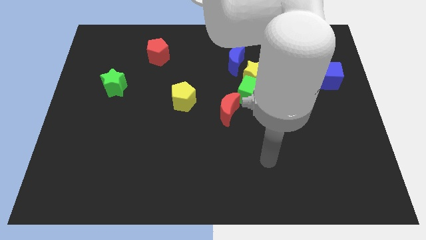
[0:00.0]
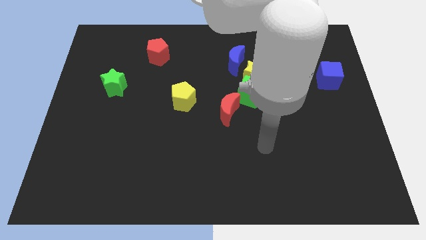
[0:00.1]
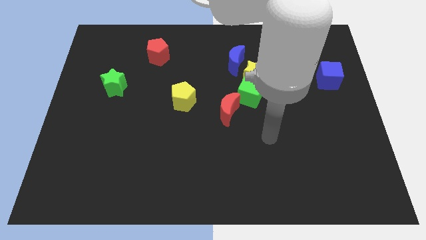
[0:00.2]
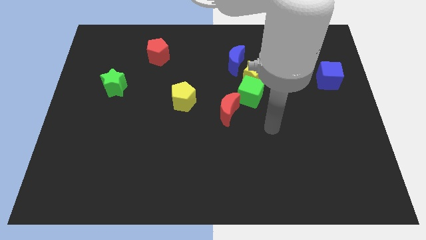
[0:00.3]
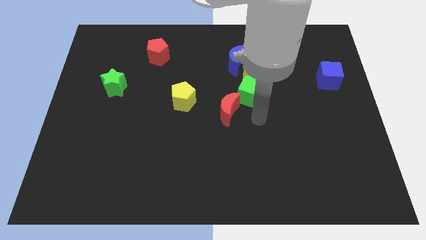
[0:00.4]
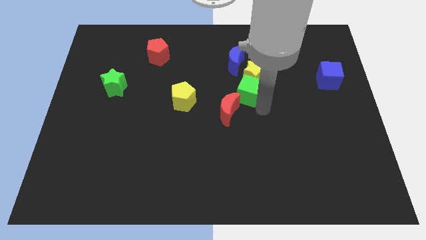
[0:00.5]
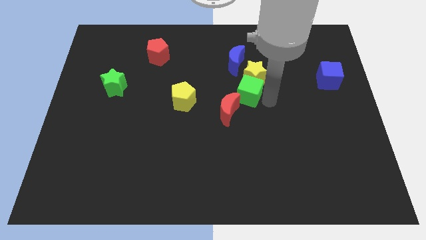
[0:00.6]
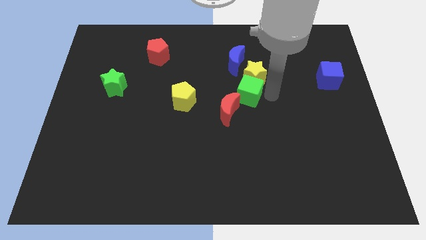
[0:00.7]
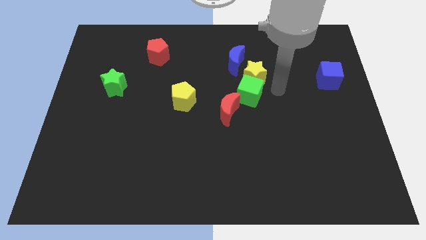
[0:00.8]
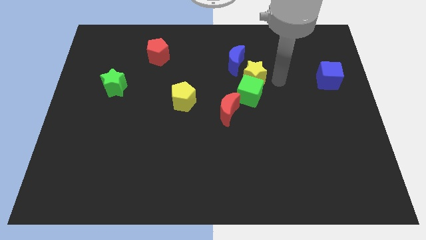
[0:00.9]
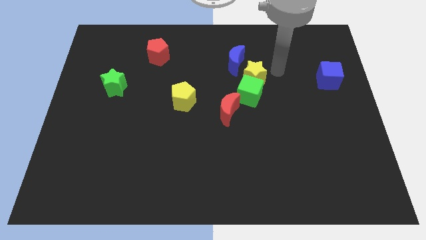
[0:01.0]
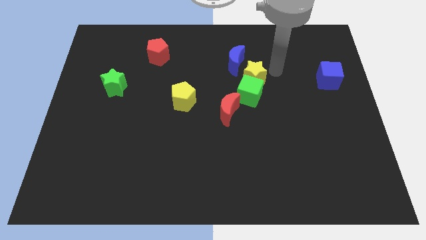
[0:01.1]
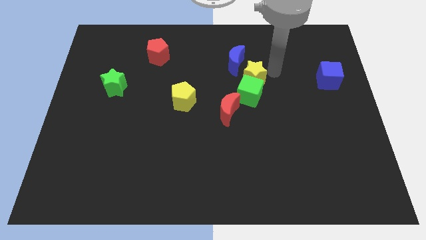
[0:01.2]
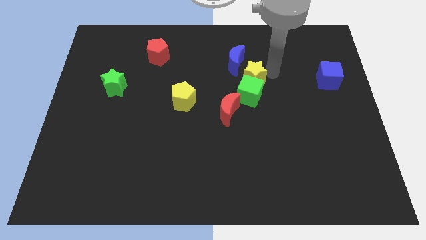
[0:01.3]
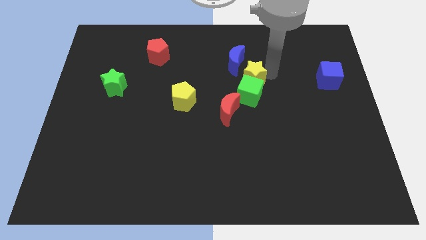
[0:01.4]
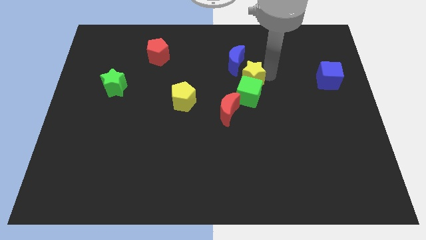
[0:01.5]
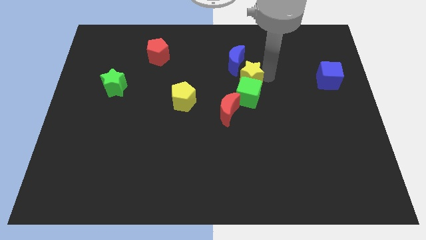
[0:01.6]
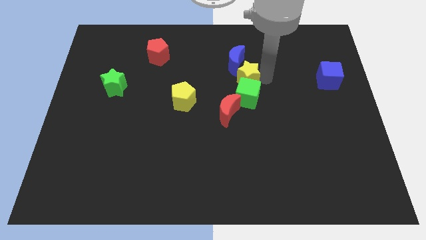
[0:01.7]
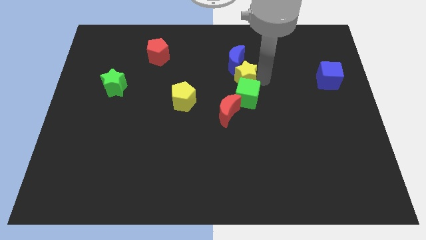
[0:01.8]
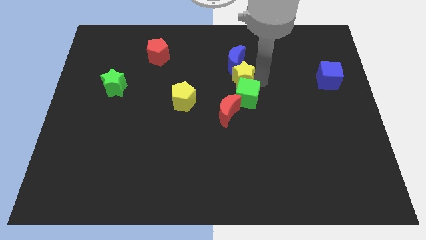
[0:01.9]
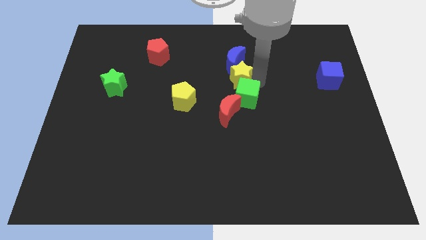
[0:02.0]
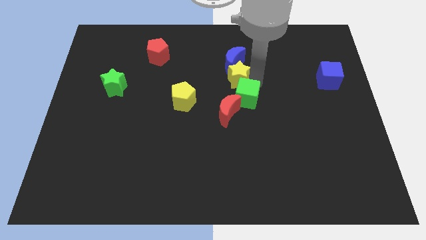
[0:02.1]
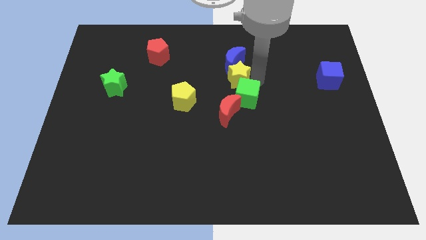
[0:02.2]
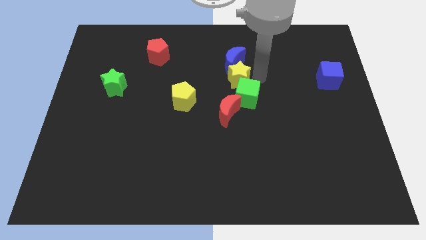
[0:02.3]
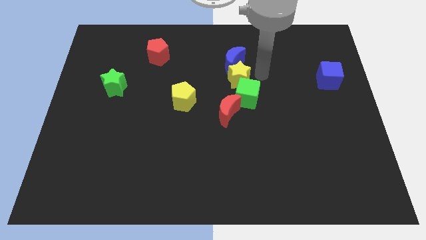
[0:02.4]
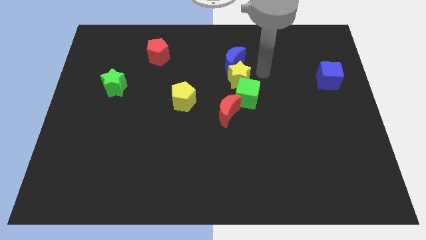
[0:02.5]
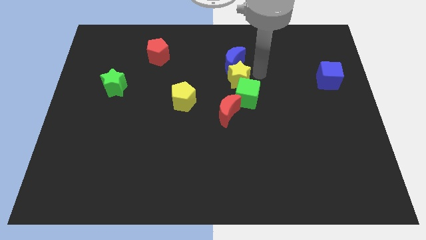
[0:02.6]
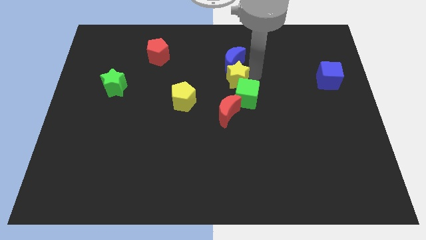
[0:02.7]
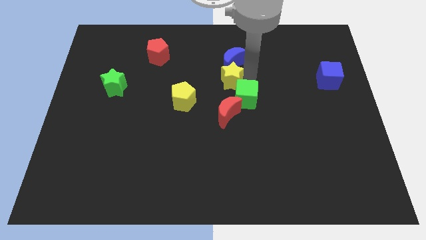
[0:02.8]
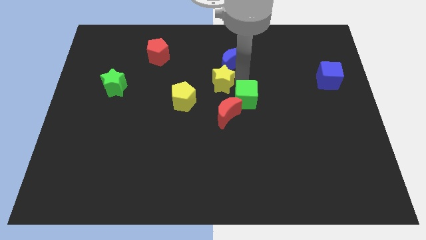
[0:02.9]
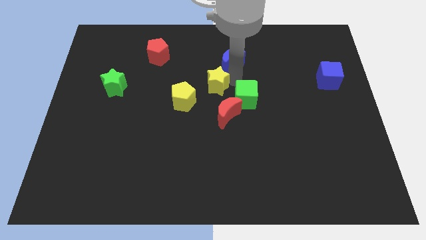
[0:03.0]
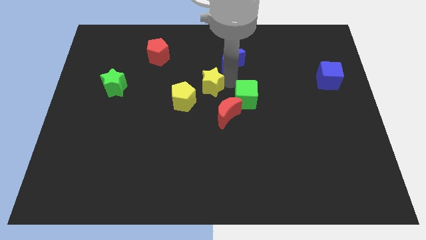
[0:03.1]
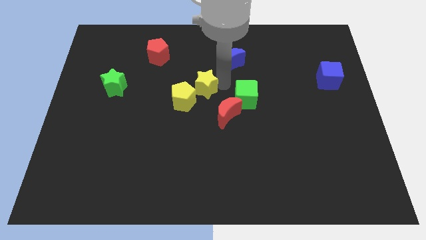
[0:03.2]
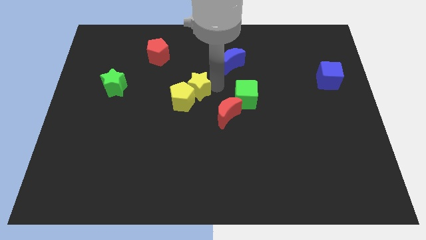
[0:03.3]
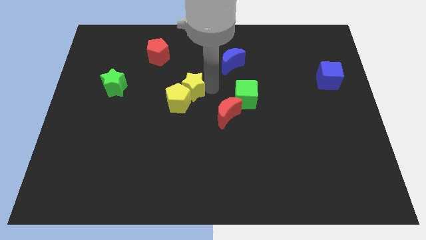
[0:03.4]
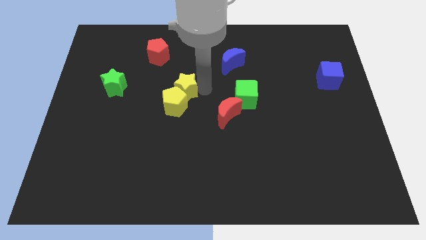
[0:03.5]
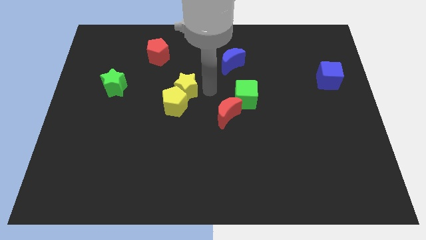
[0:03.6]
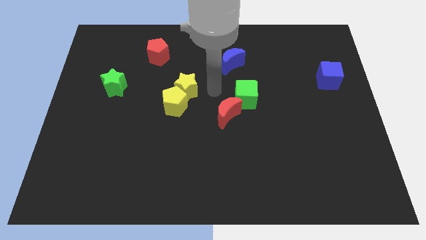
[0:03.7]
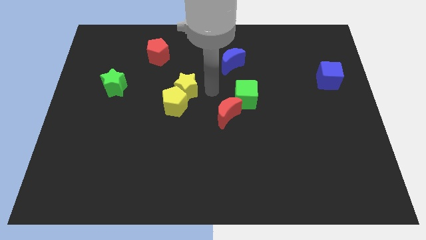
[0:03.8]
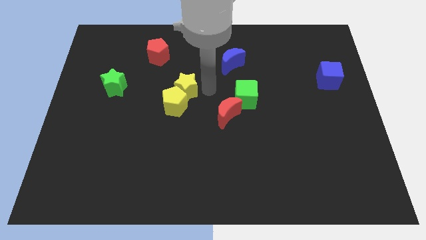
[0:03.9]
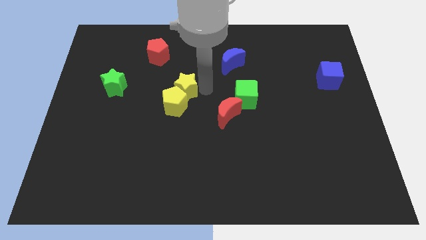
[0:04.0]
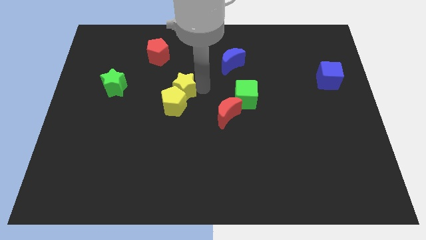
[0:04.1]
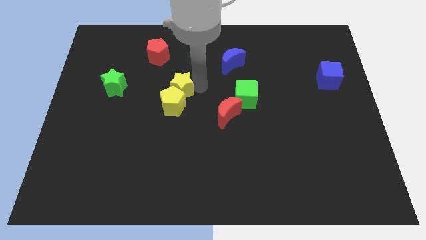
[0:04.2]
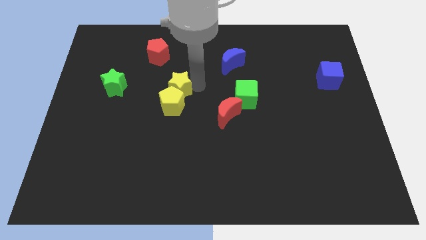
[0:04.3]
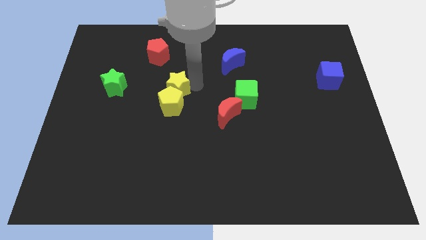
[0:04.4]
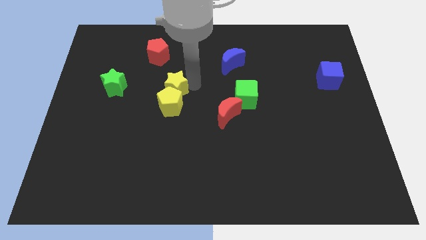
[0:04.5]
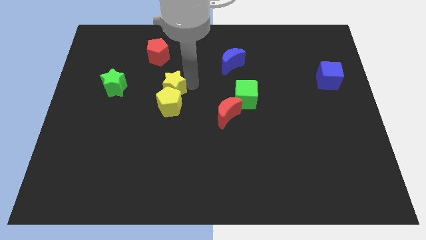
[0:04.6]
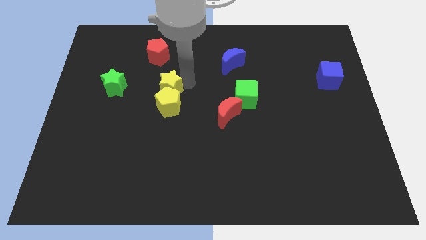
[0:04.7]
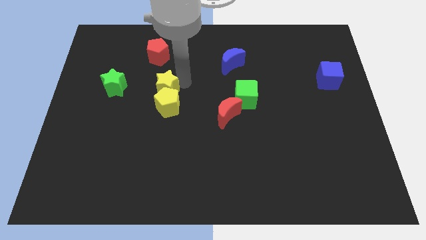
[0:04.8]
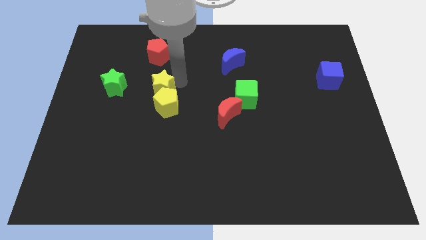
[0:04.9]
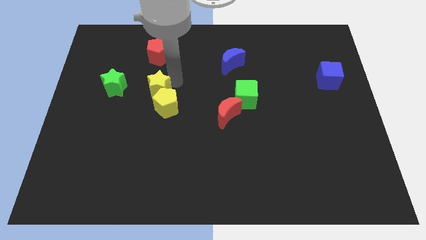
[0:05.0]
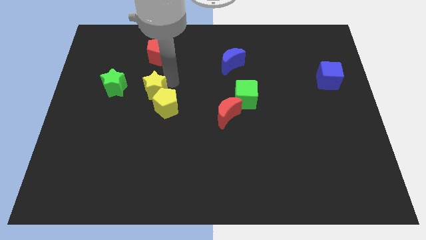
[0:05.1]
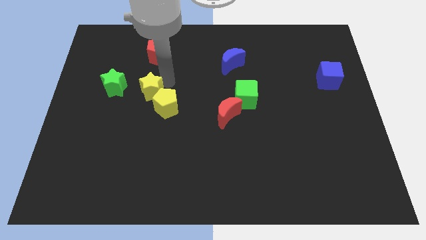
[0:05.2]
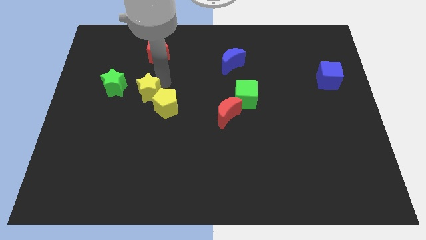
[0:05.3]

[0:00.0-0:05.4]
move the yellow star to the left side of the yellow pentagon

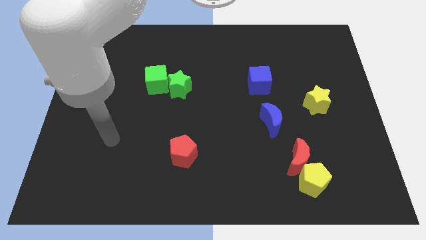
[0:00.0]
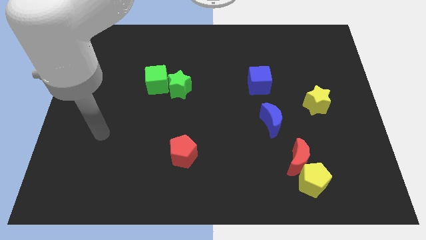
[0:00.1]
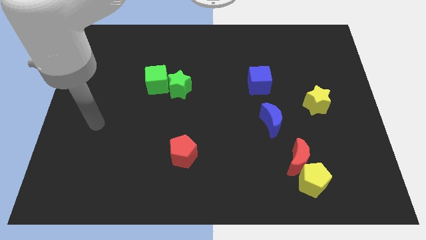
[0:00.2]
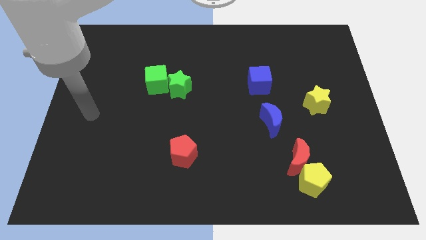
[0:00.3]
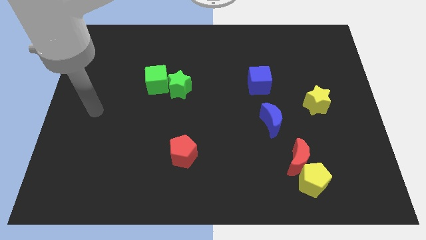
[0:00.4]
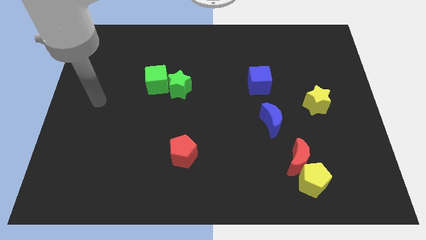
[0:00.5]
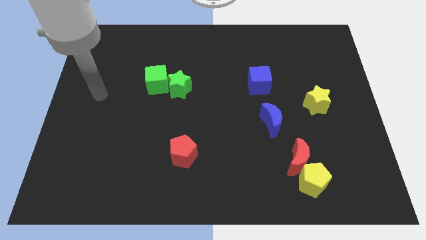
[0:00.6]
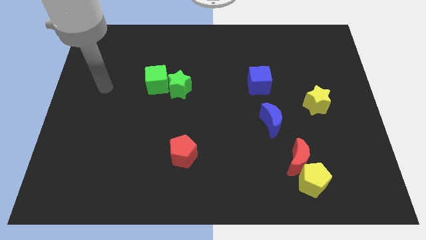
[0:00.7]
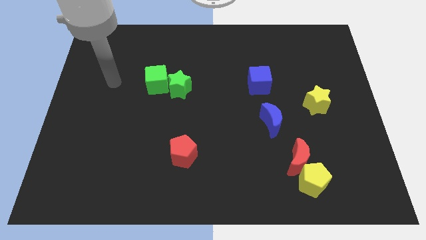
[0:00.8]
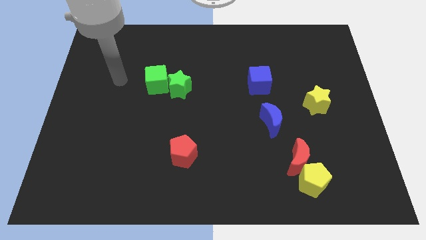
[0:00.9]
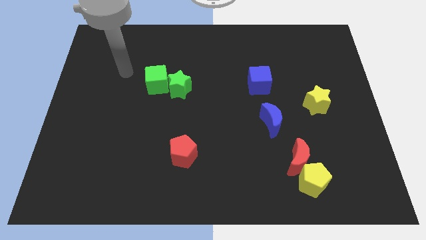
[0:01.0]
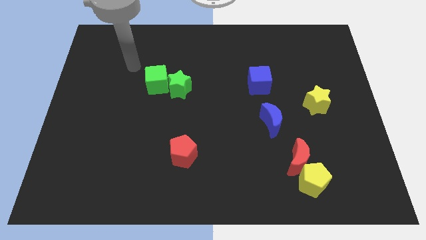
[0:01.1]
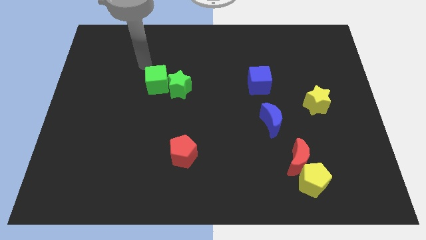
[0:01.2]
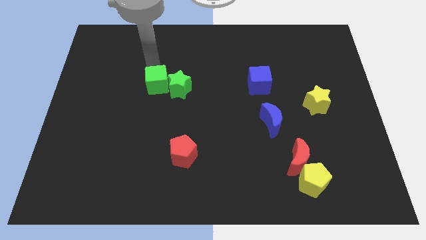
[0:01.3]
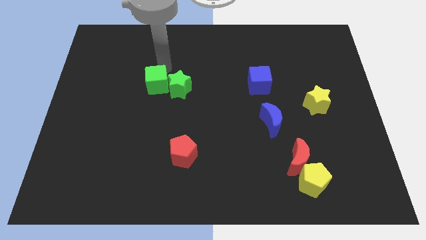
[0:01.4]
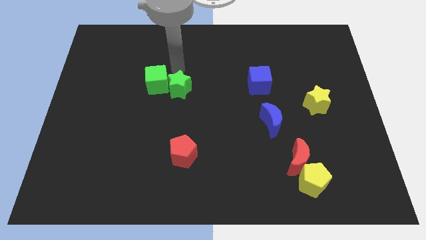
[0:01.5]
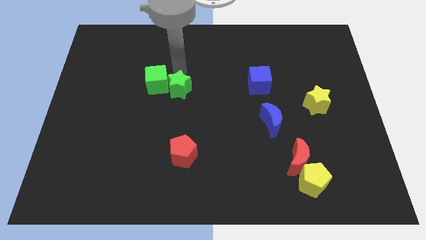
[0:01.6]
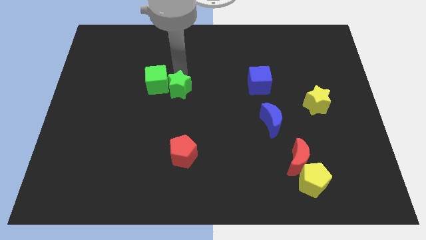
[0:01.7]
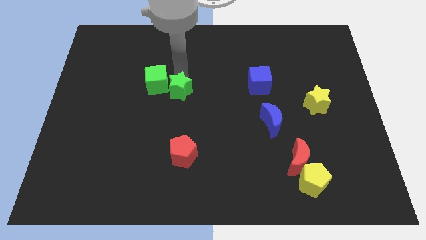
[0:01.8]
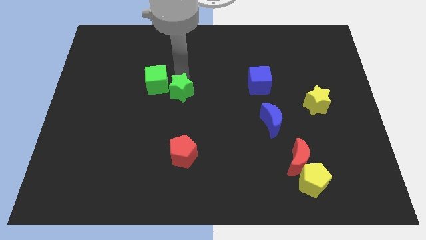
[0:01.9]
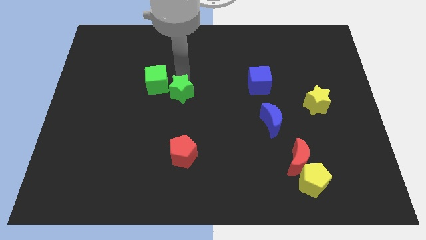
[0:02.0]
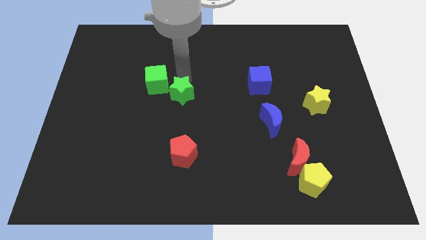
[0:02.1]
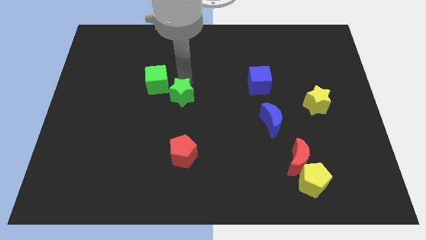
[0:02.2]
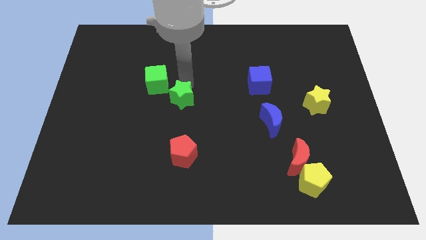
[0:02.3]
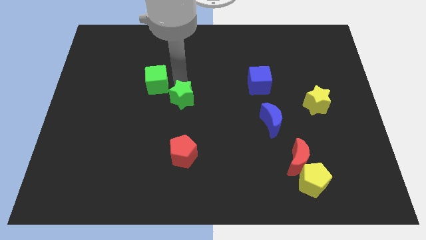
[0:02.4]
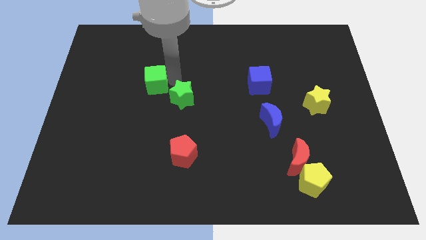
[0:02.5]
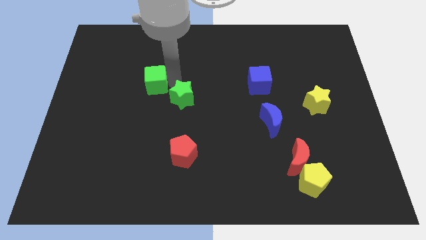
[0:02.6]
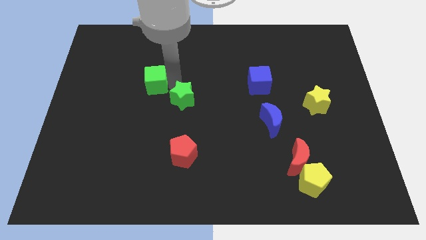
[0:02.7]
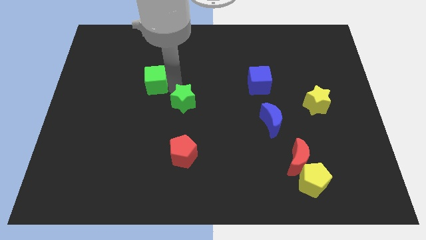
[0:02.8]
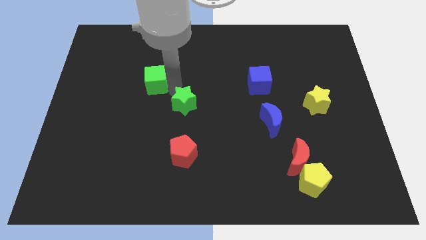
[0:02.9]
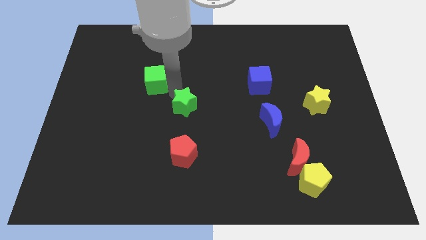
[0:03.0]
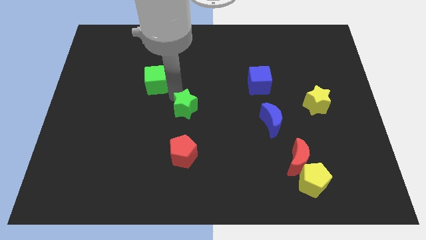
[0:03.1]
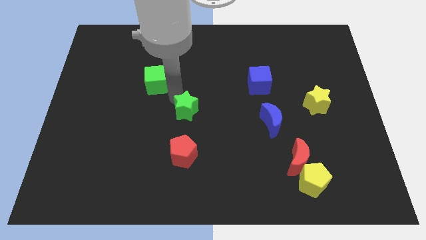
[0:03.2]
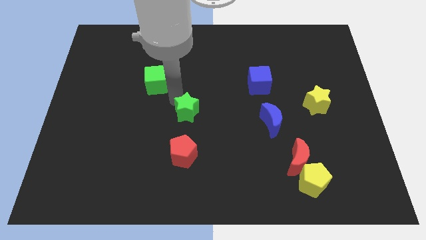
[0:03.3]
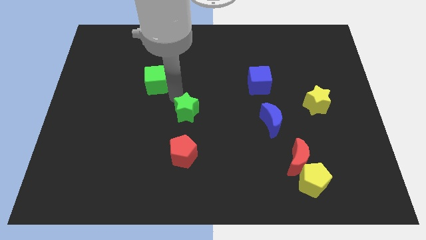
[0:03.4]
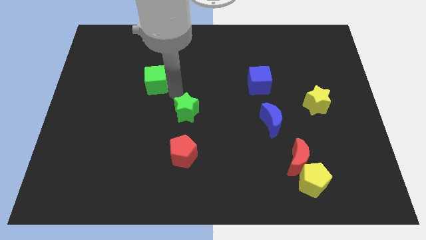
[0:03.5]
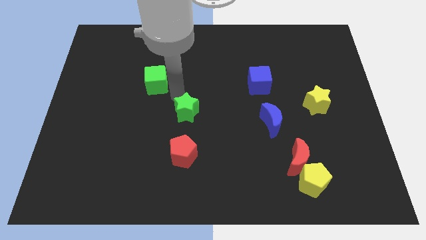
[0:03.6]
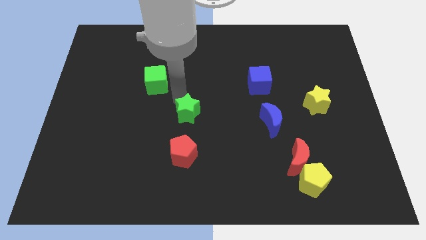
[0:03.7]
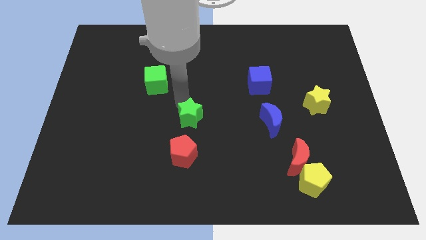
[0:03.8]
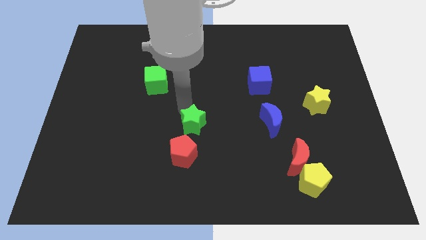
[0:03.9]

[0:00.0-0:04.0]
move the green star to the top right of the red pentagon
